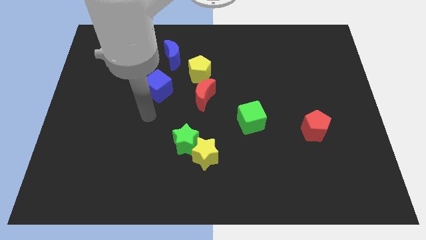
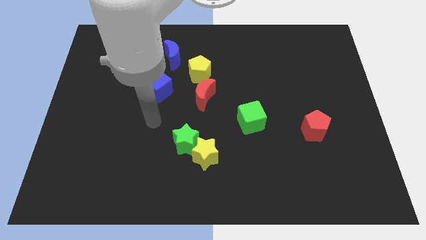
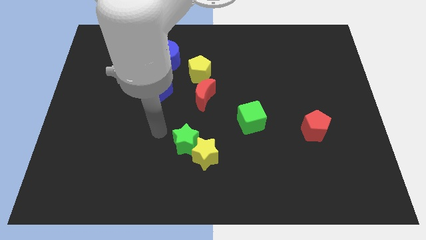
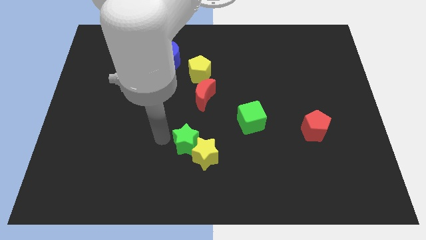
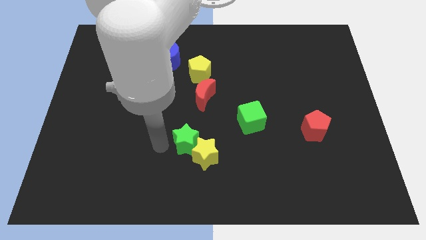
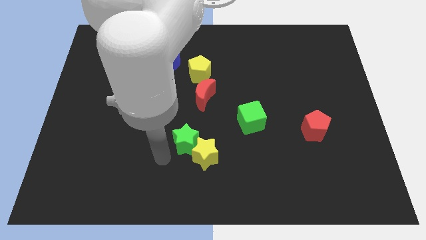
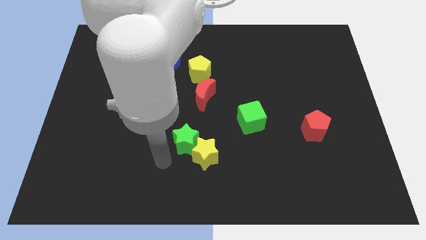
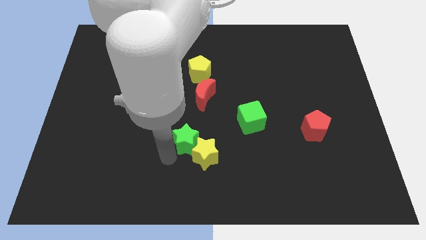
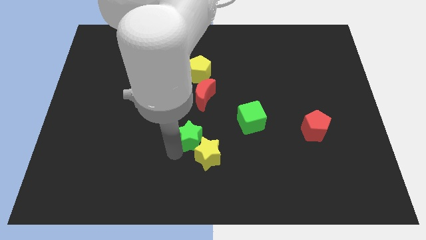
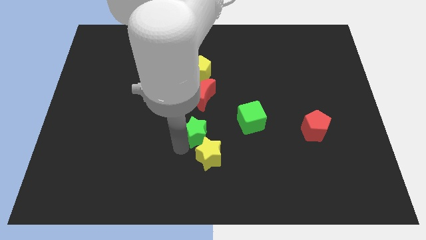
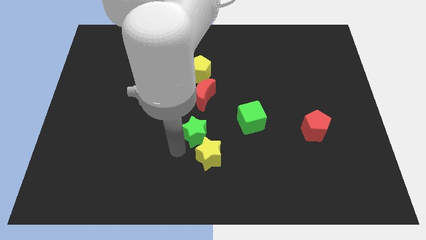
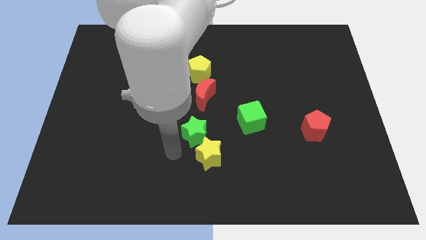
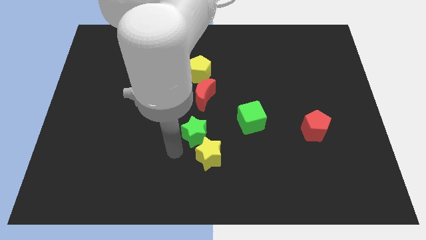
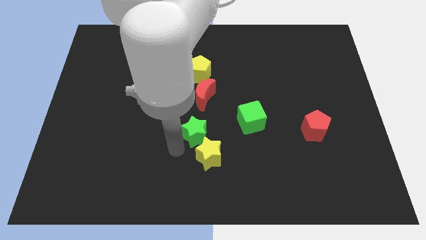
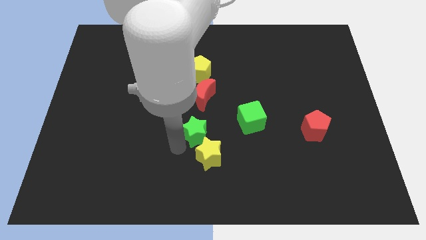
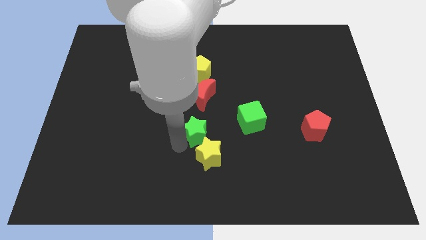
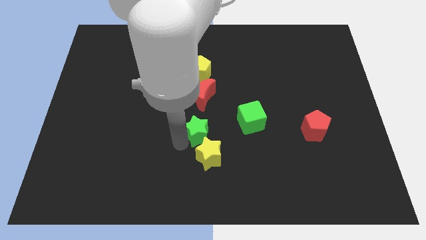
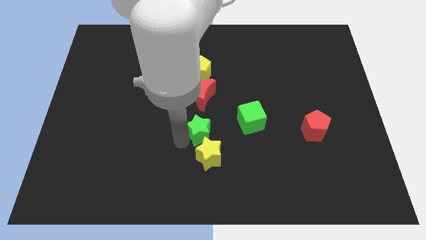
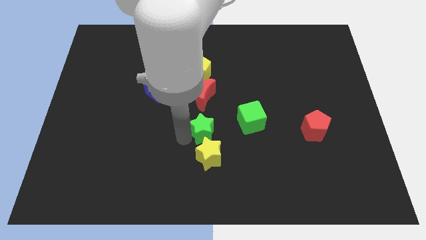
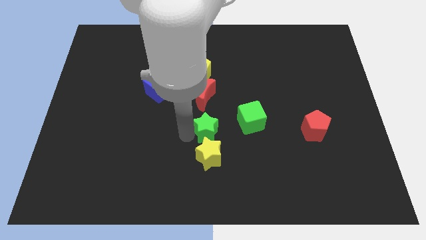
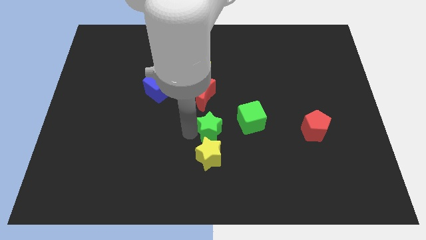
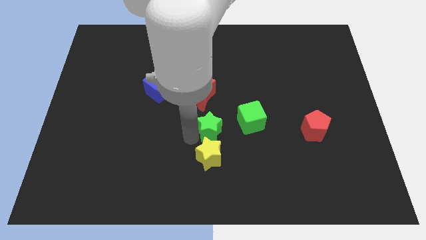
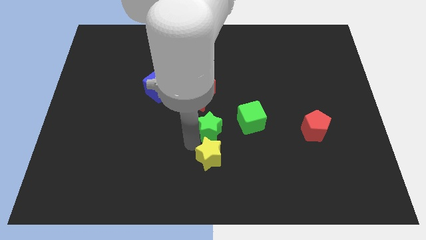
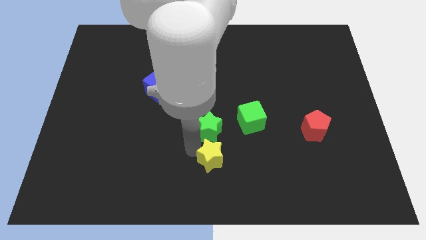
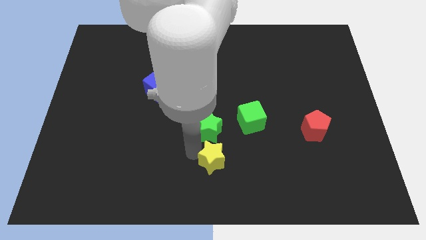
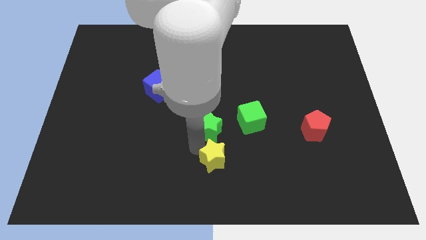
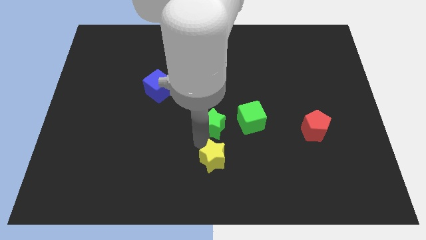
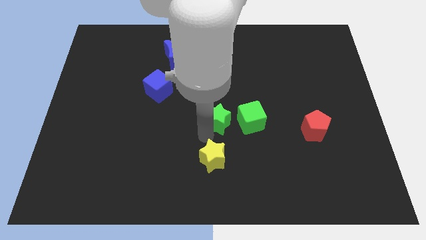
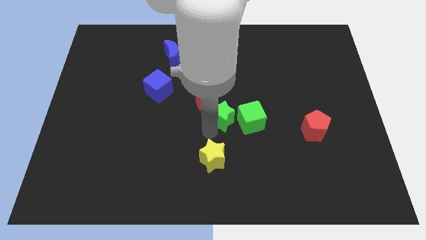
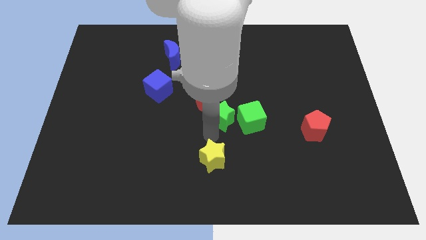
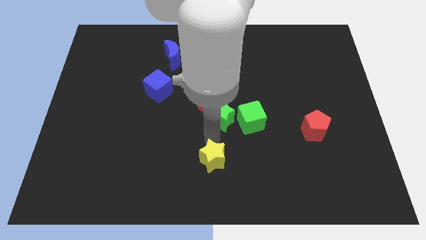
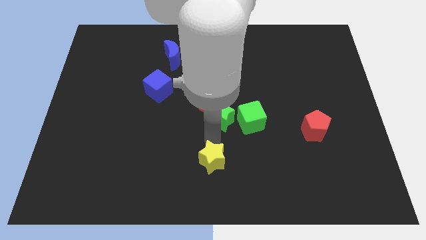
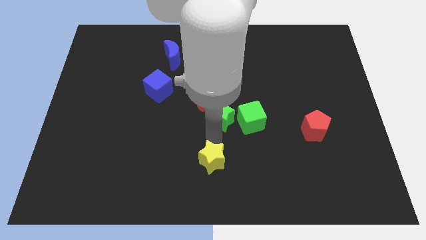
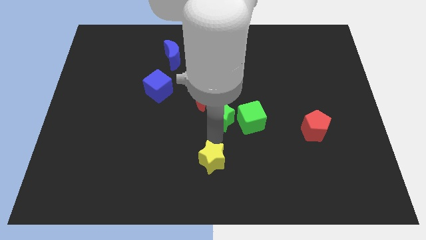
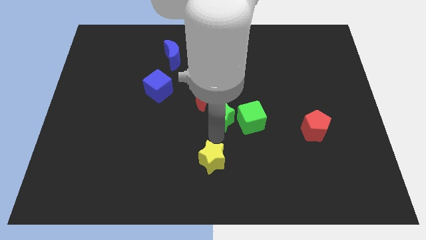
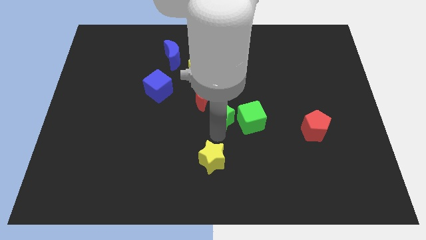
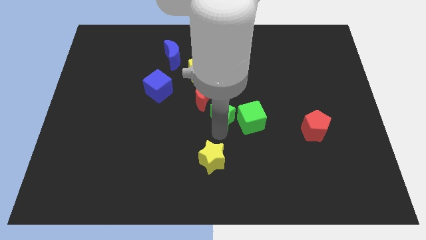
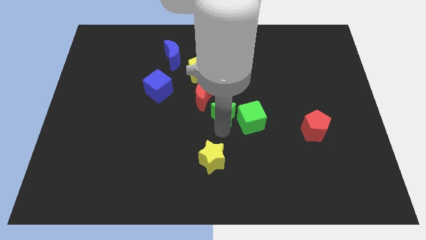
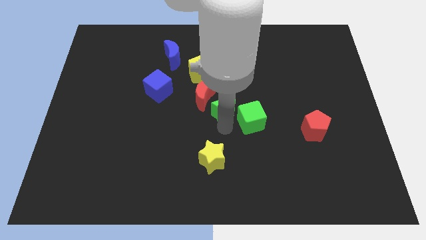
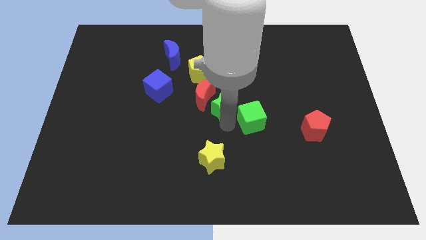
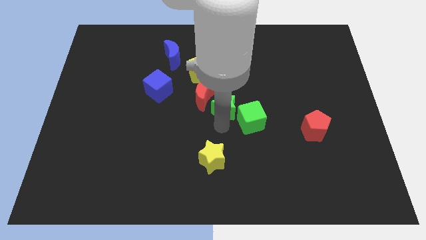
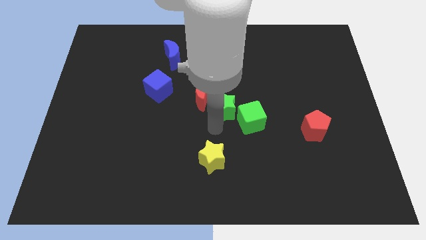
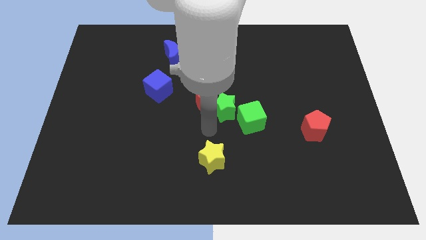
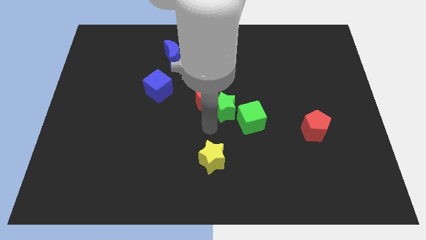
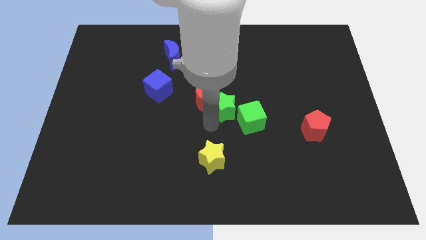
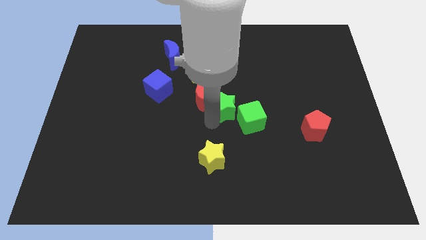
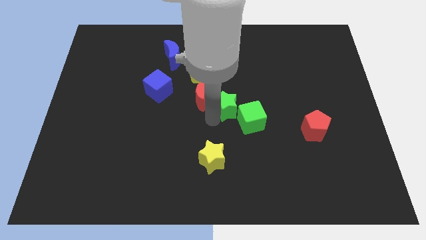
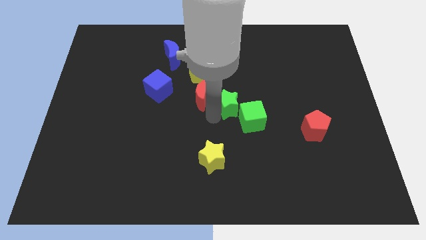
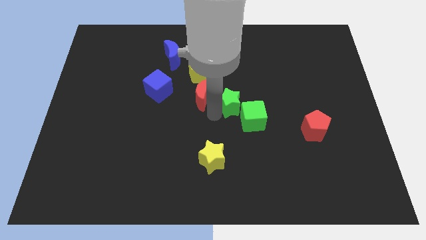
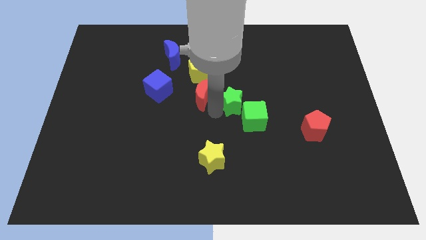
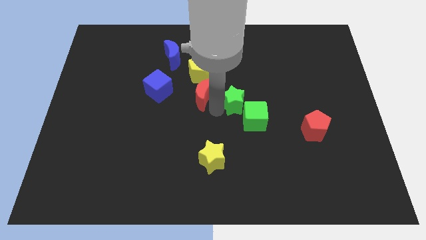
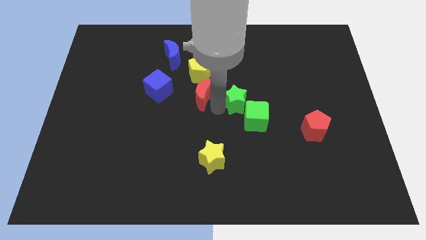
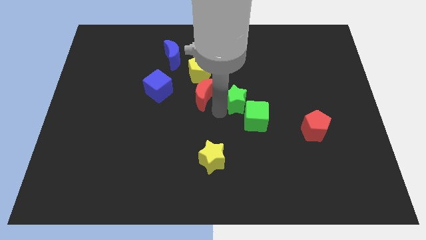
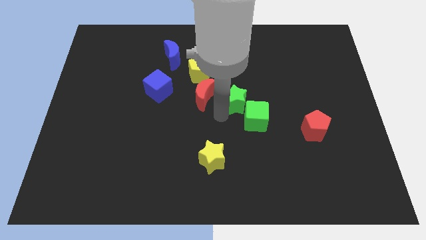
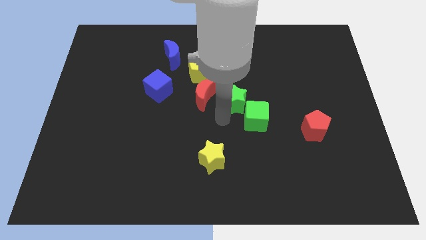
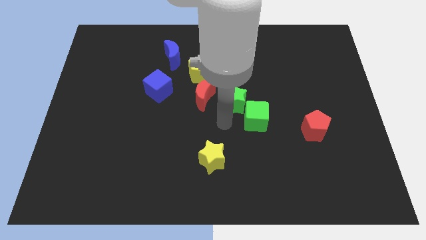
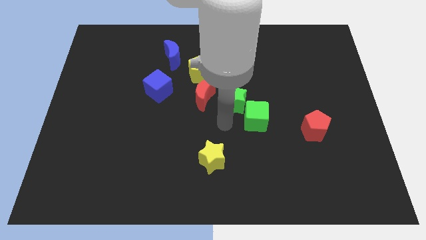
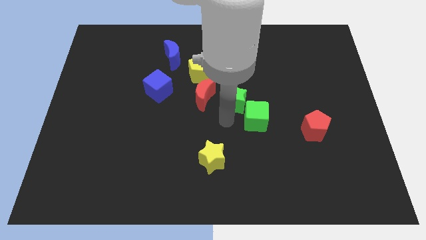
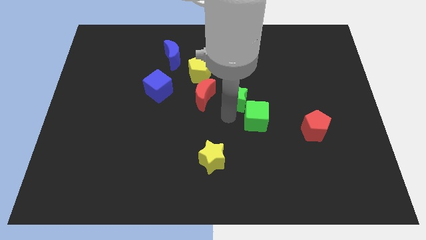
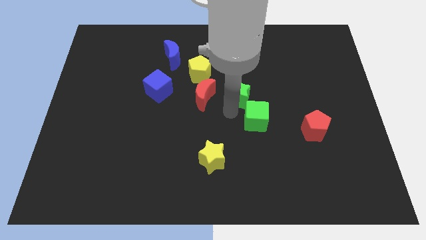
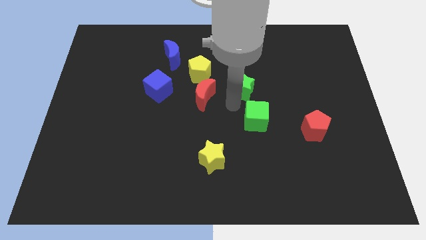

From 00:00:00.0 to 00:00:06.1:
move the green star diagonally upwards and right

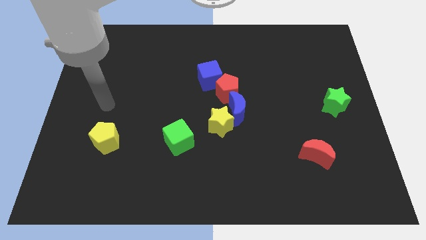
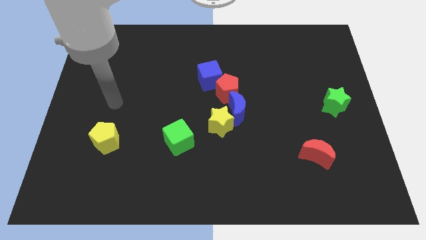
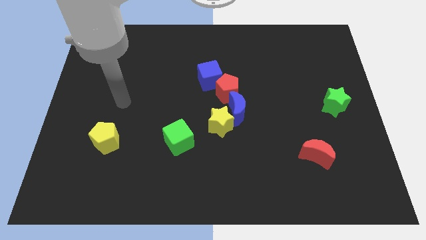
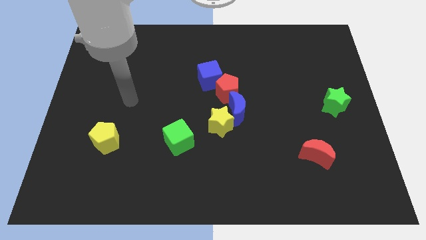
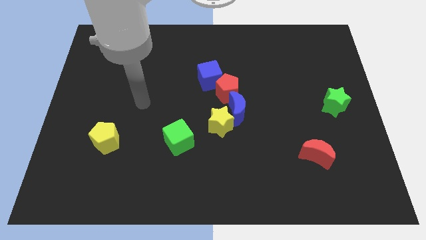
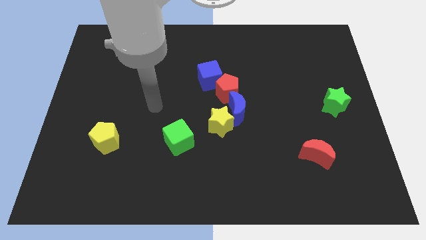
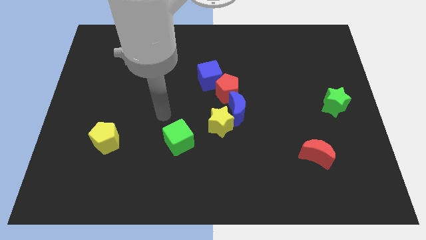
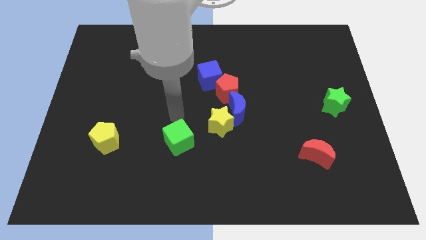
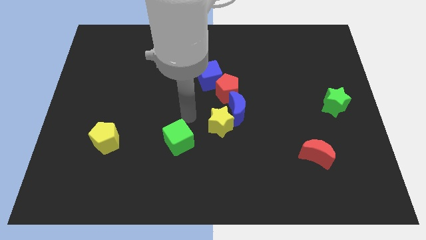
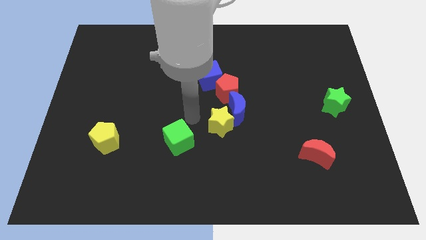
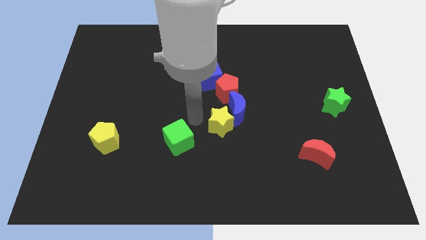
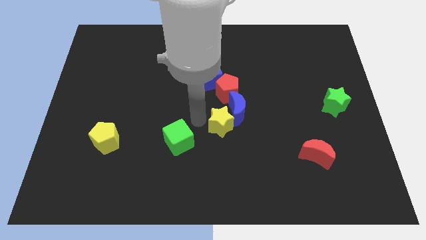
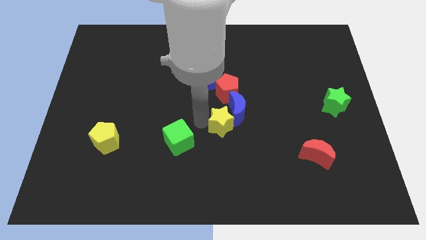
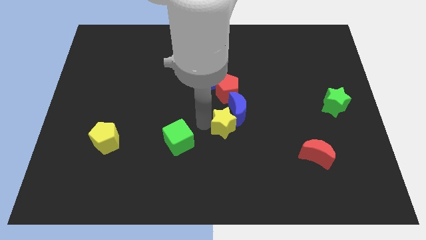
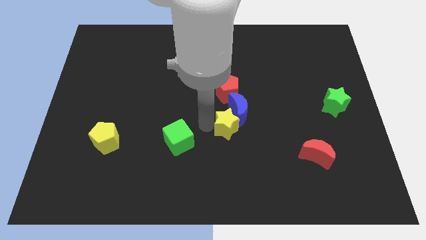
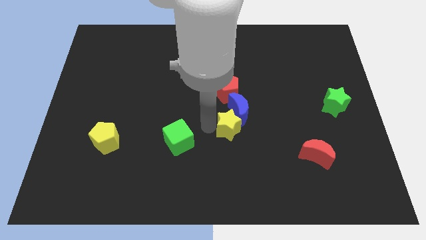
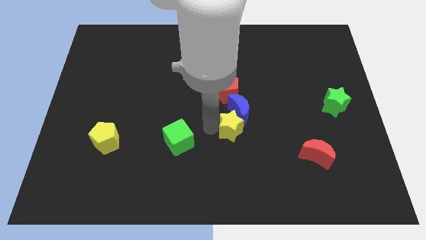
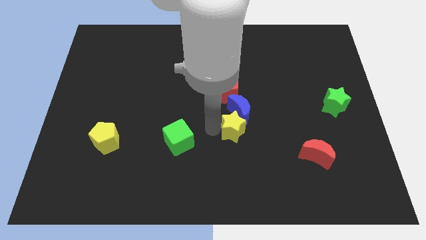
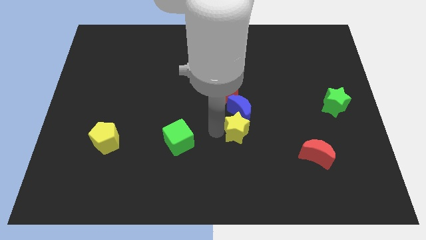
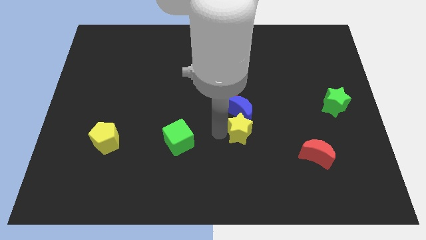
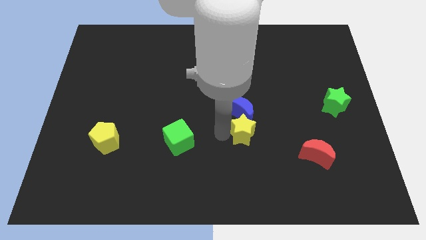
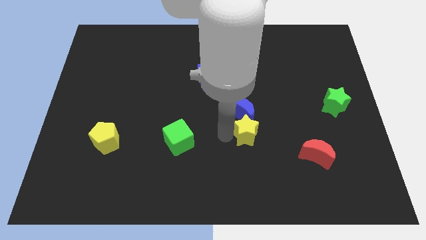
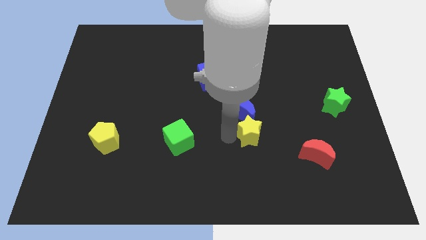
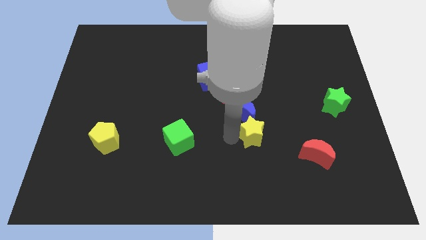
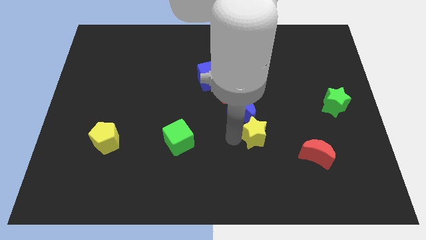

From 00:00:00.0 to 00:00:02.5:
move the yellow star a little bit to the right
